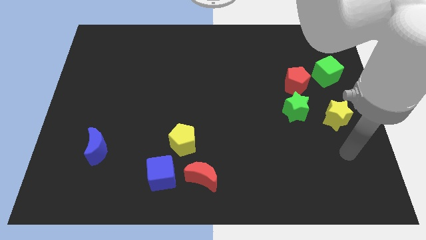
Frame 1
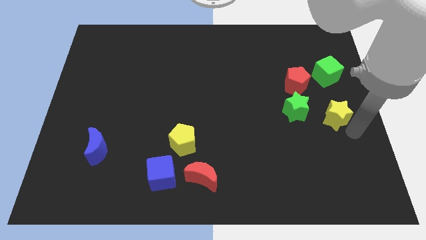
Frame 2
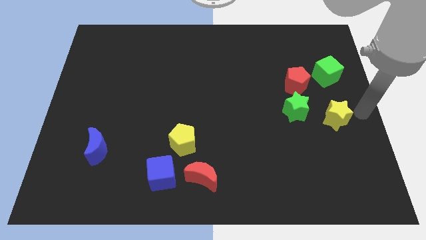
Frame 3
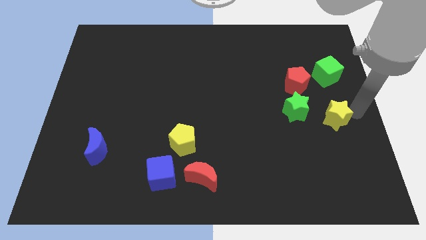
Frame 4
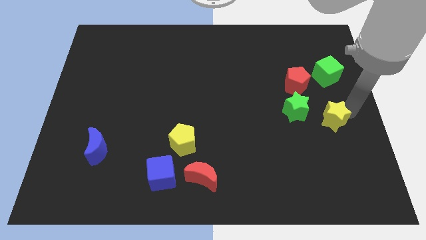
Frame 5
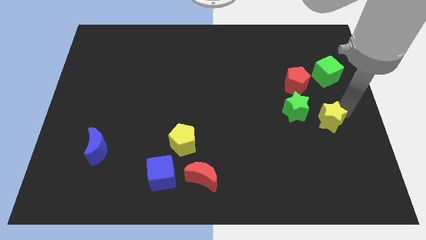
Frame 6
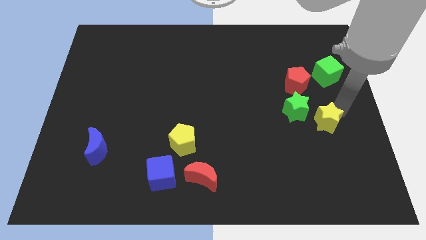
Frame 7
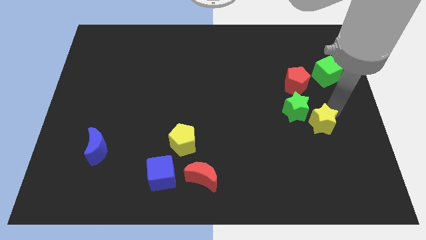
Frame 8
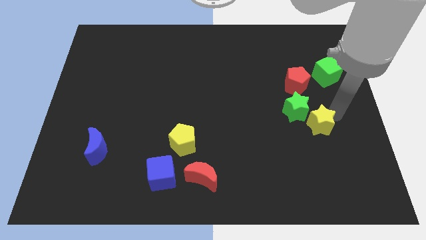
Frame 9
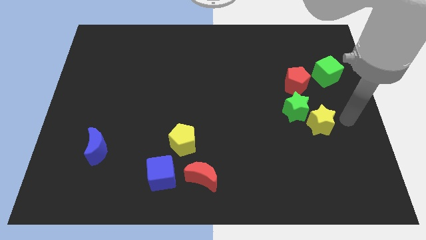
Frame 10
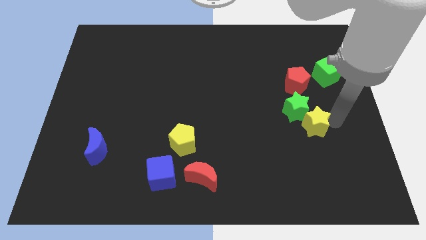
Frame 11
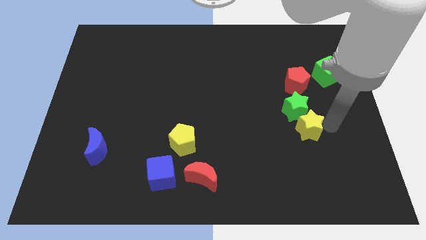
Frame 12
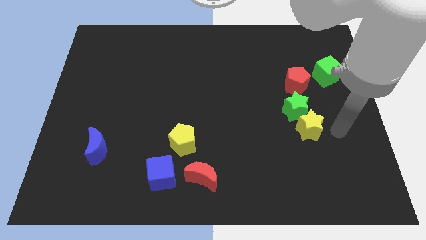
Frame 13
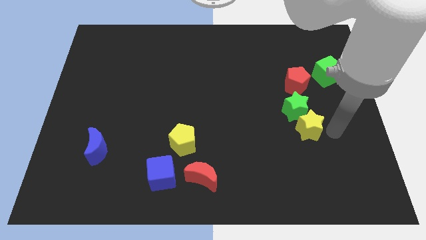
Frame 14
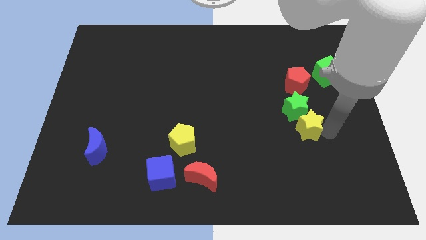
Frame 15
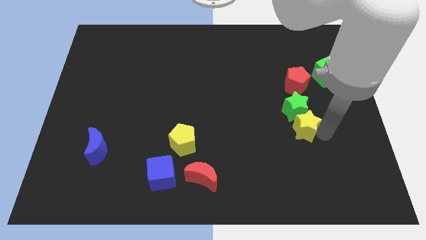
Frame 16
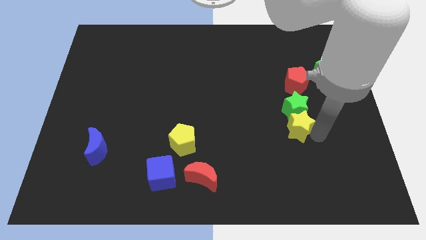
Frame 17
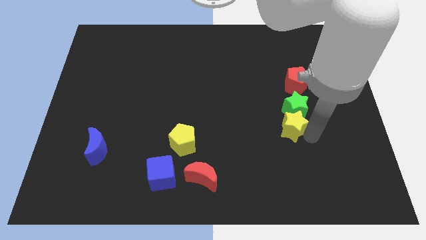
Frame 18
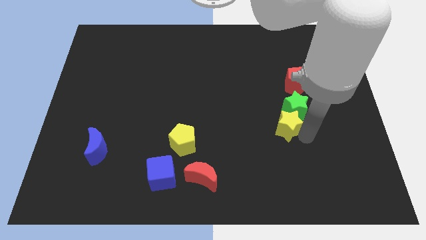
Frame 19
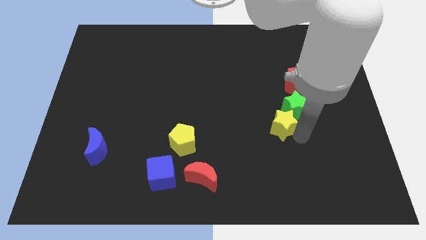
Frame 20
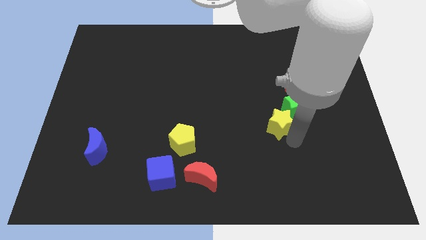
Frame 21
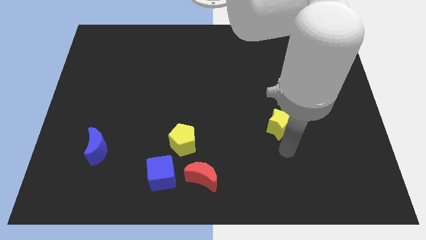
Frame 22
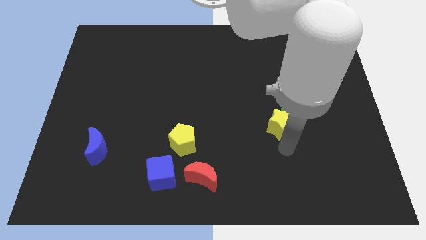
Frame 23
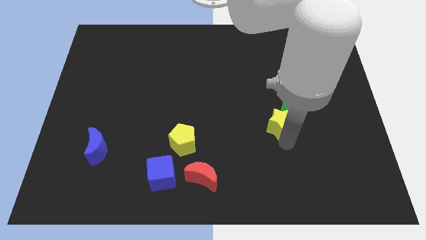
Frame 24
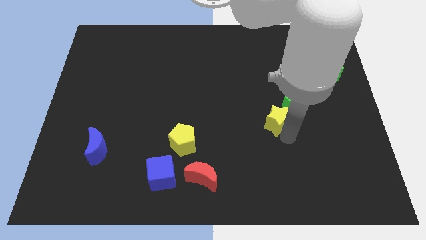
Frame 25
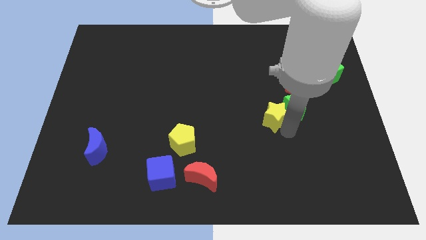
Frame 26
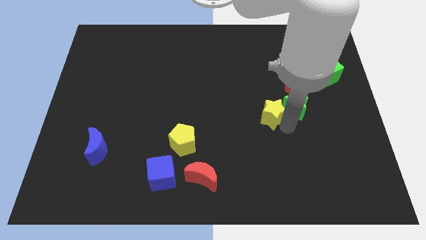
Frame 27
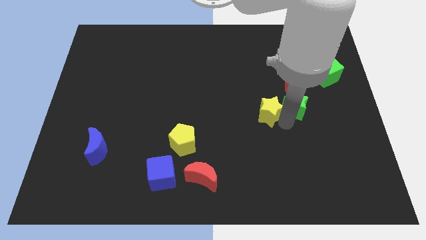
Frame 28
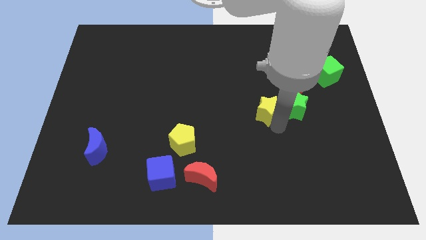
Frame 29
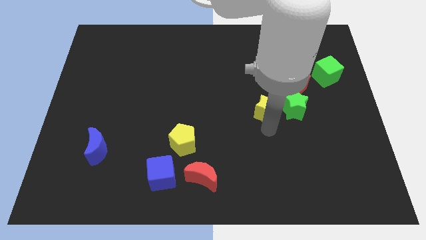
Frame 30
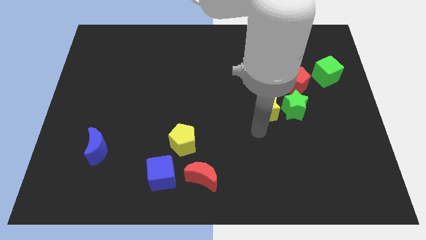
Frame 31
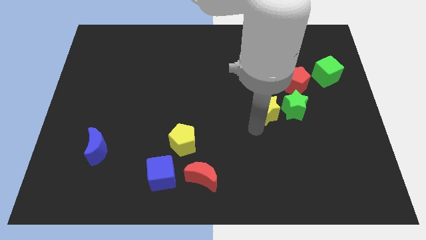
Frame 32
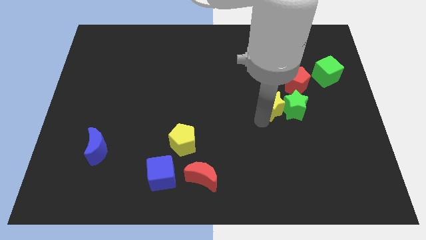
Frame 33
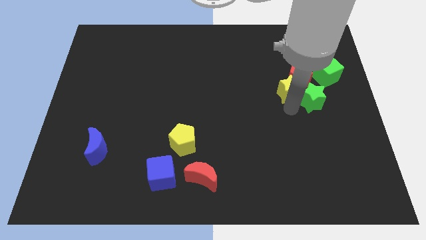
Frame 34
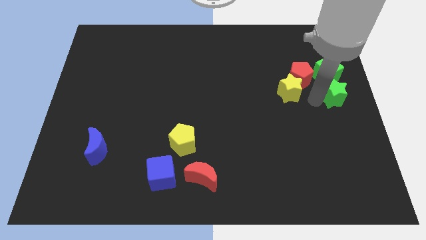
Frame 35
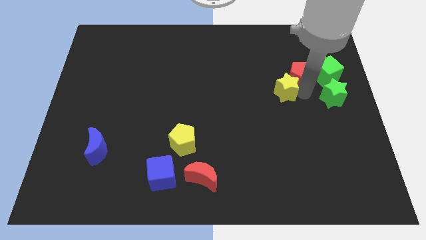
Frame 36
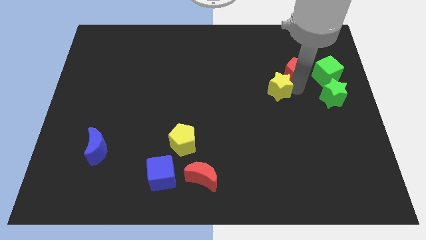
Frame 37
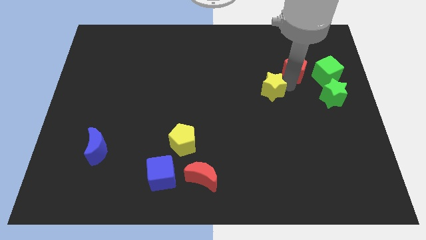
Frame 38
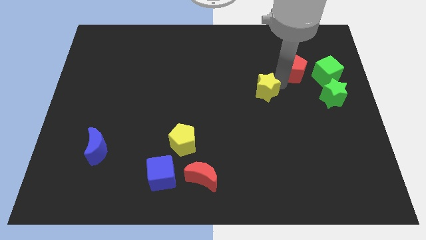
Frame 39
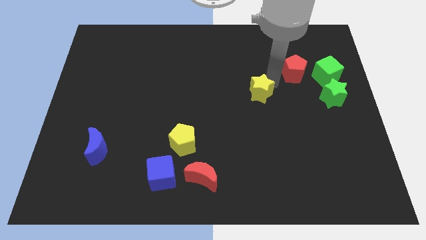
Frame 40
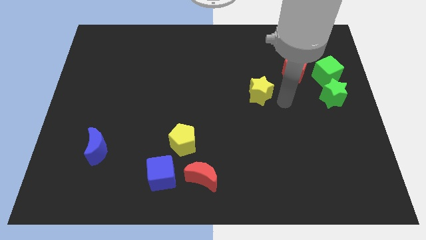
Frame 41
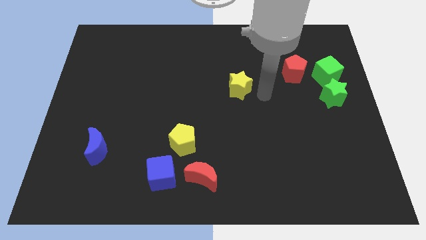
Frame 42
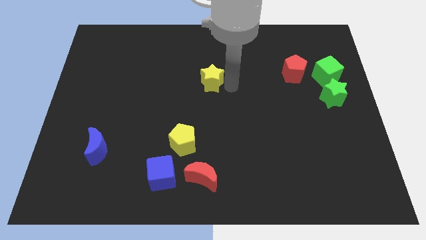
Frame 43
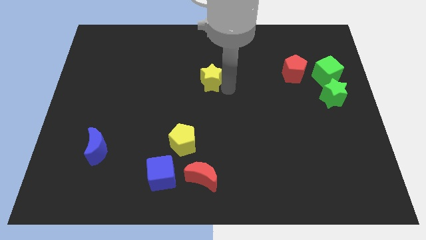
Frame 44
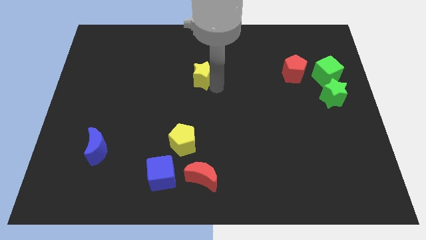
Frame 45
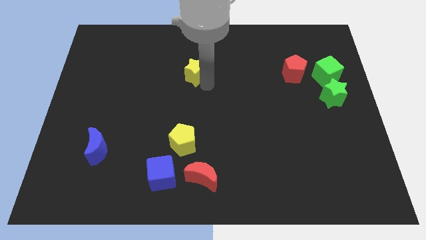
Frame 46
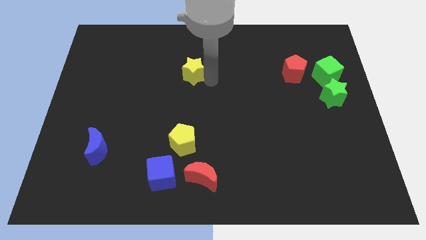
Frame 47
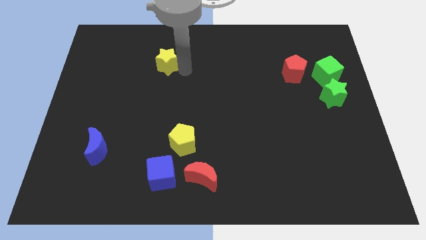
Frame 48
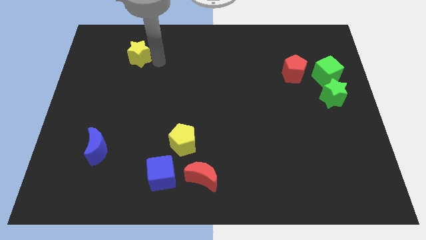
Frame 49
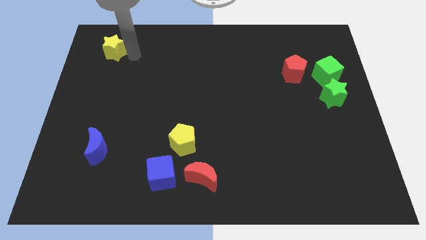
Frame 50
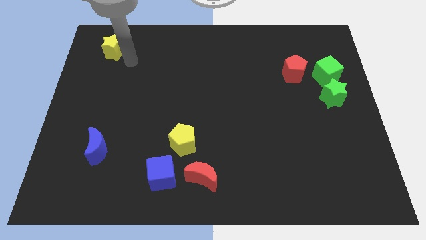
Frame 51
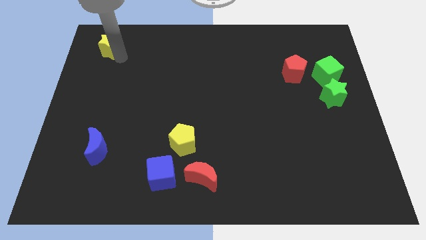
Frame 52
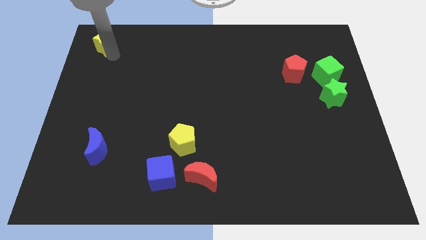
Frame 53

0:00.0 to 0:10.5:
move the yellow star to the top left corner
